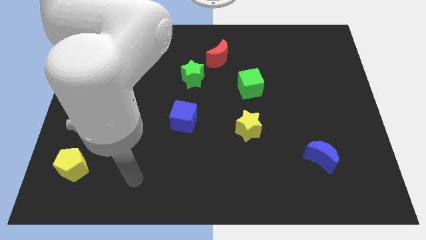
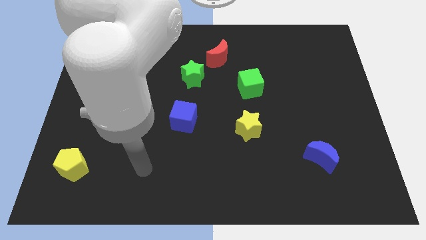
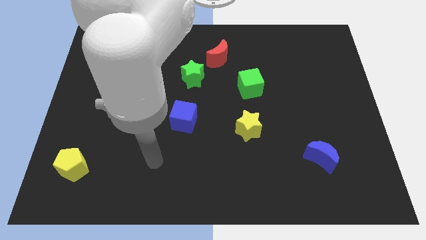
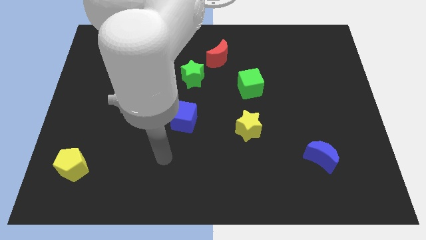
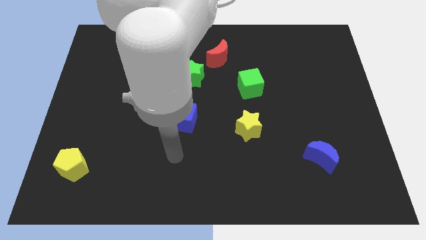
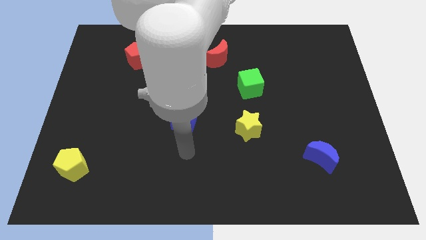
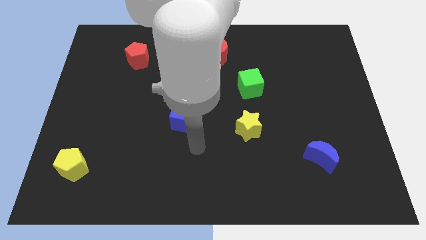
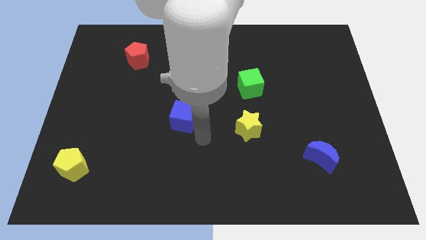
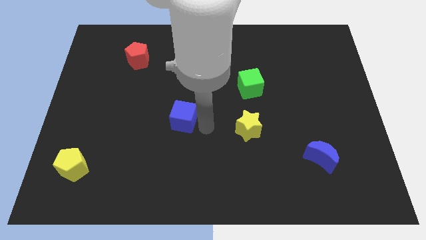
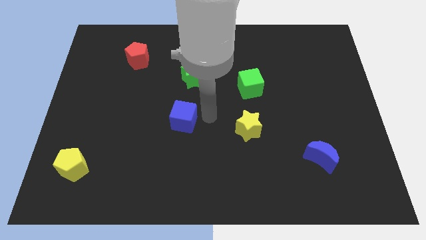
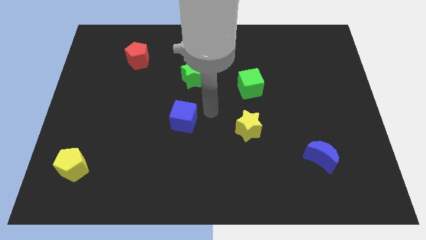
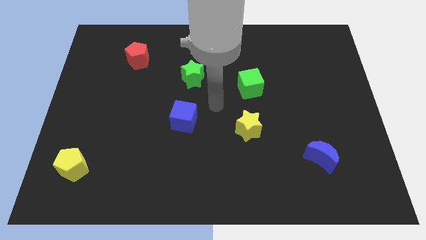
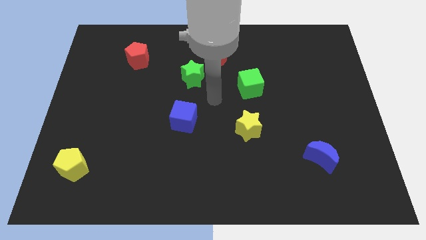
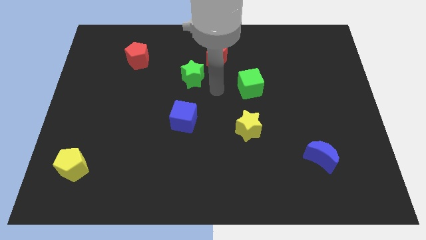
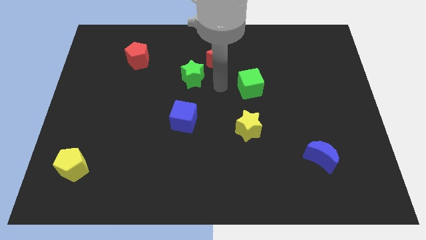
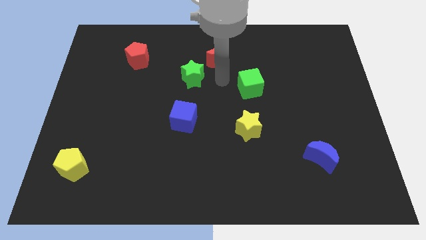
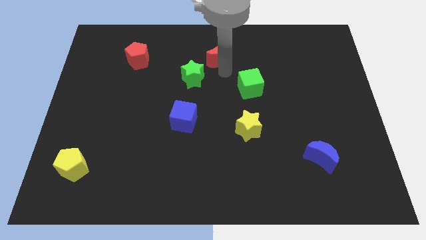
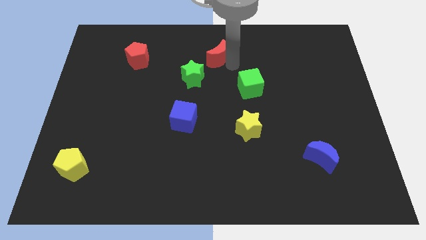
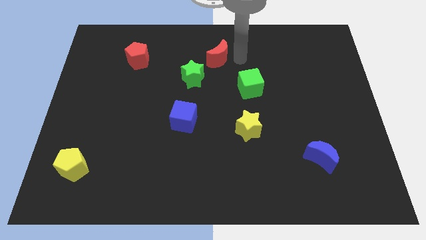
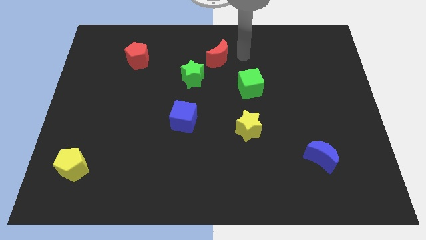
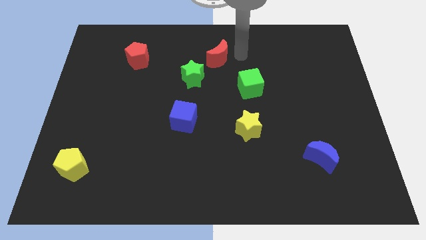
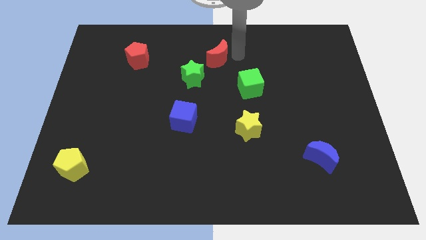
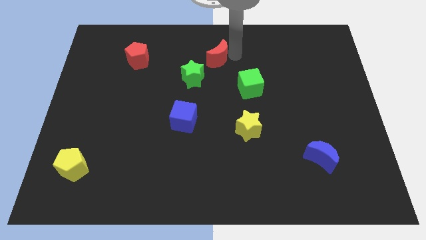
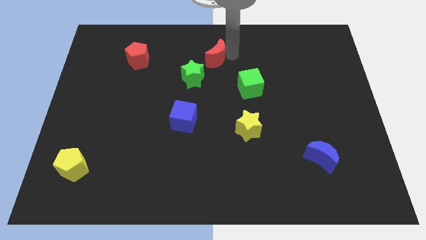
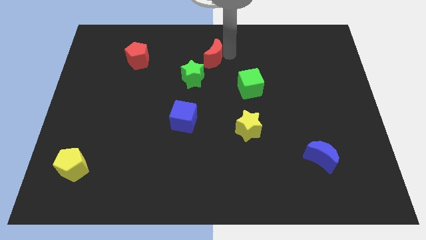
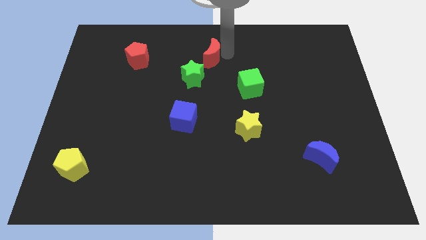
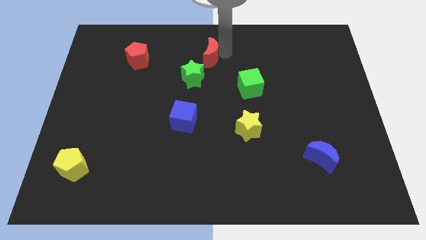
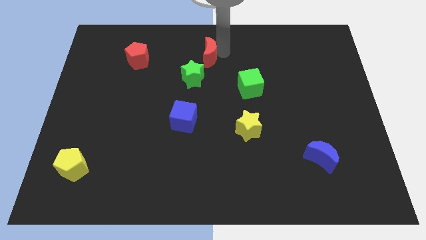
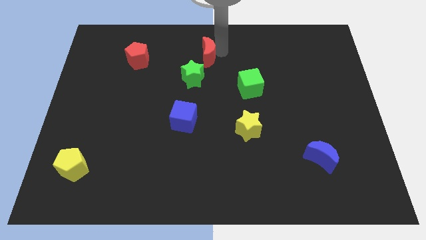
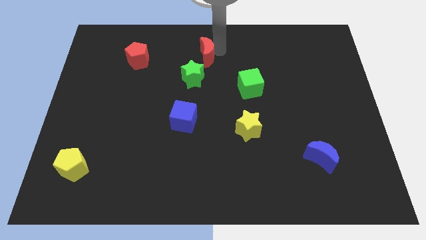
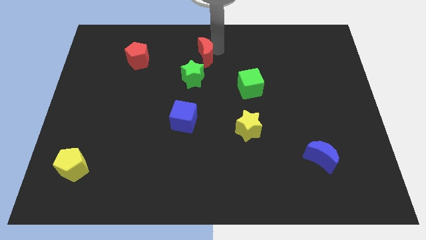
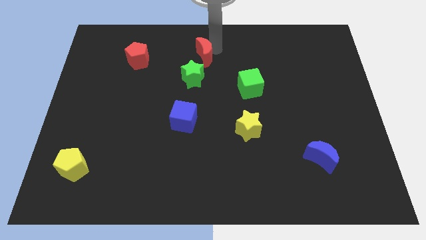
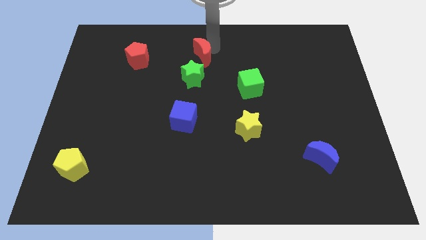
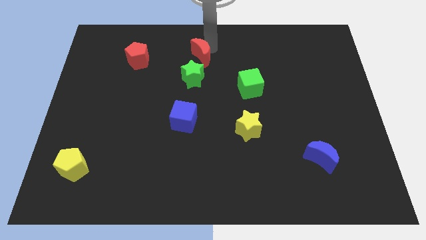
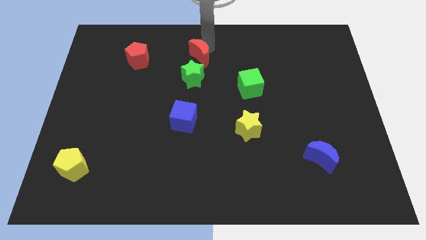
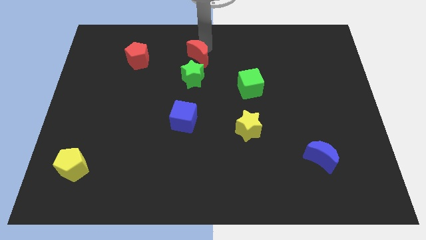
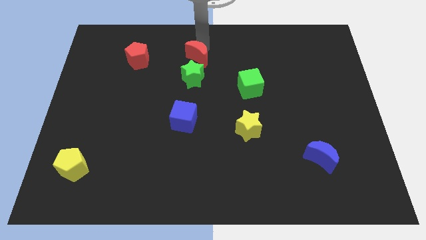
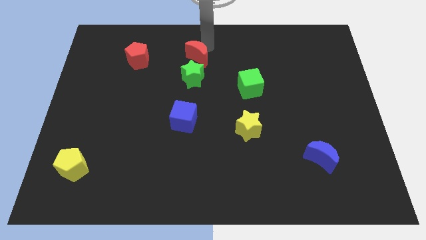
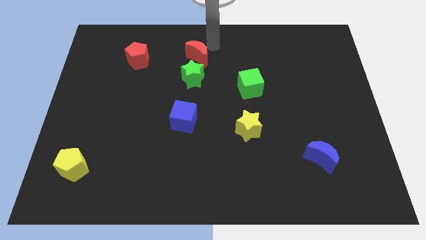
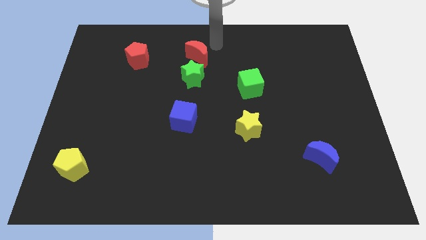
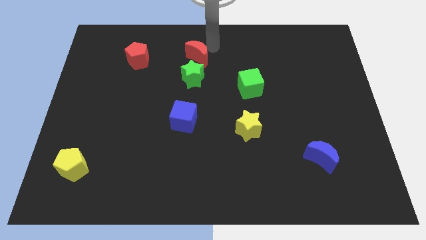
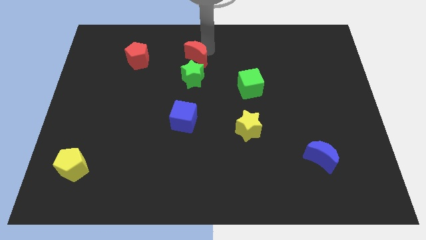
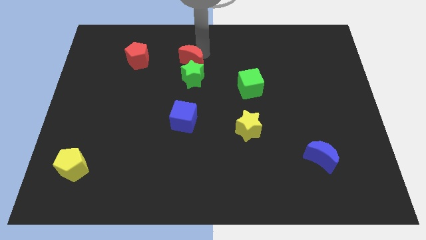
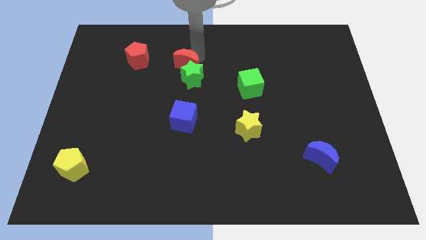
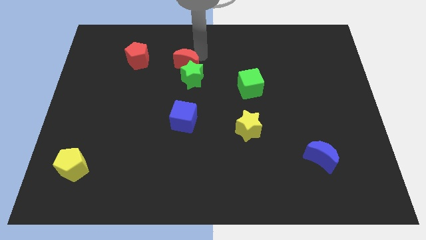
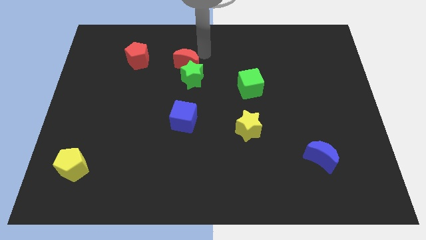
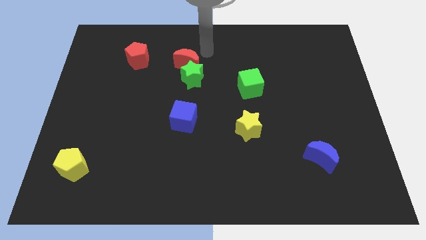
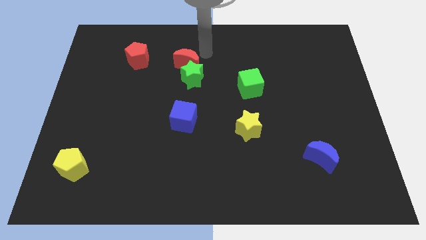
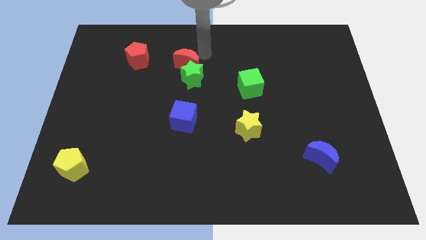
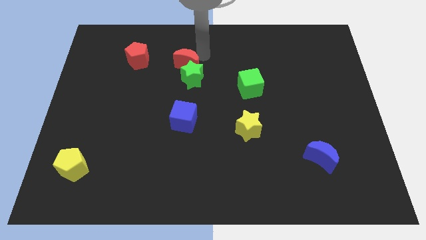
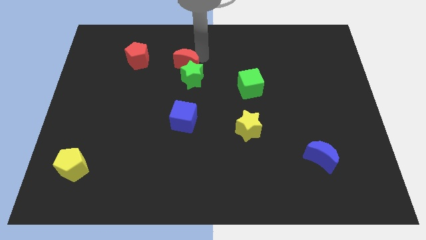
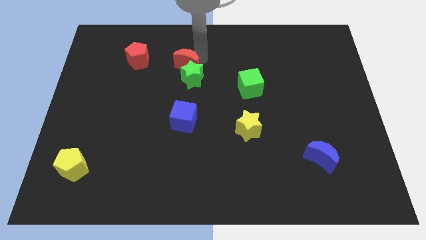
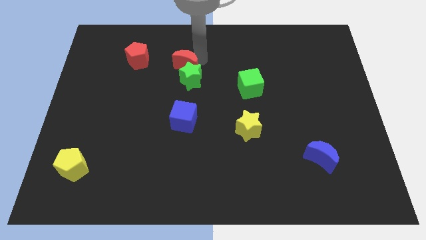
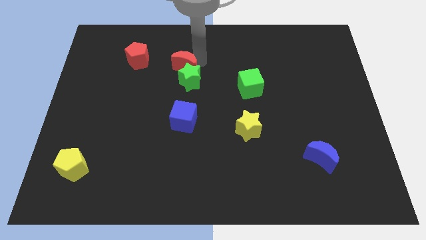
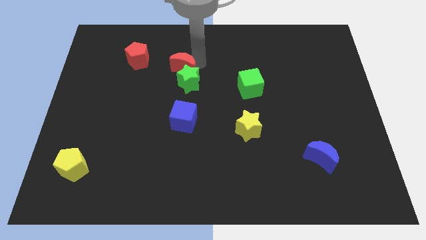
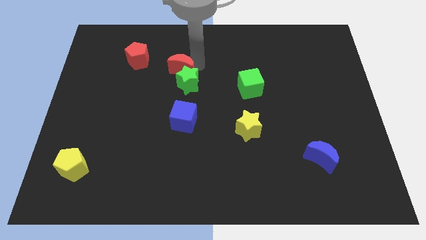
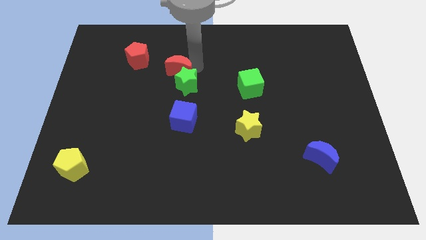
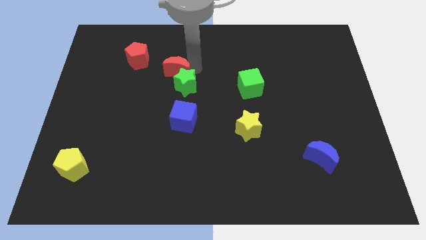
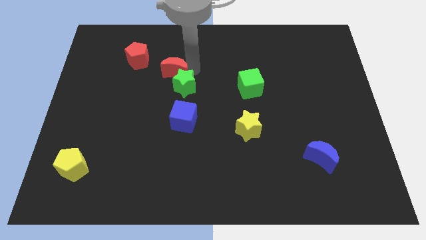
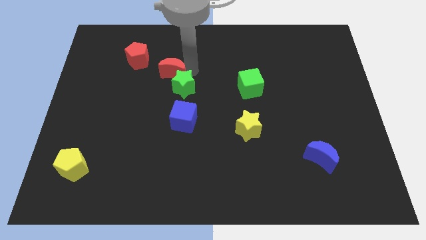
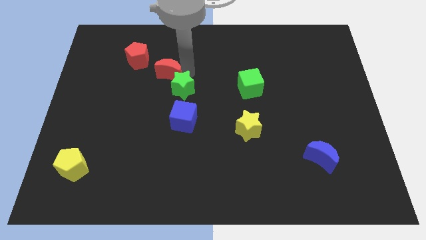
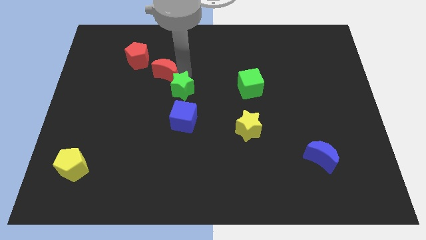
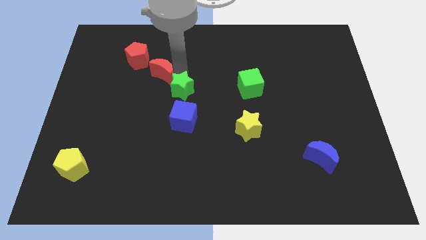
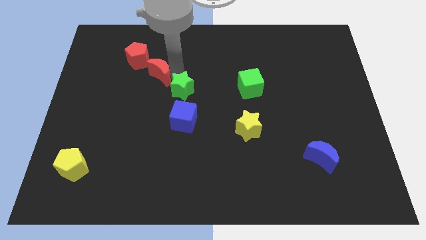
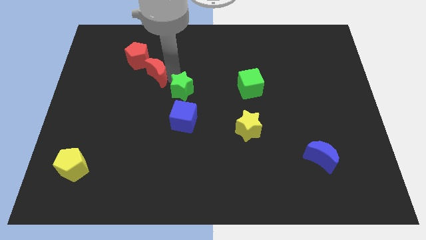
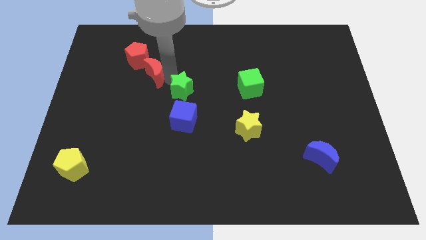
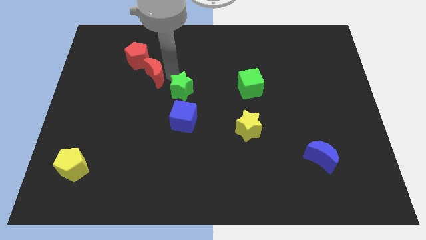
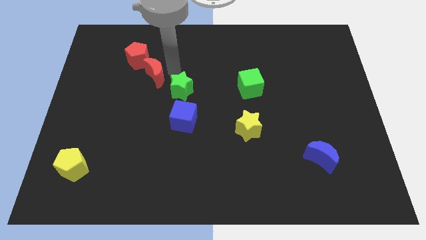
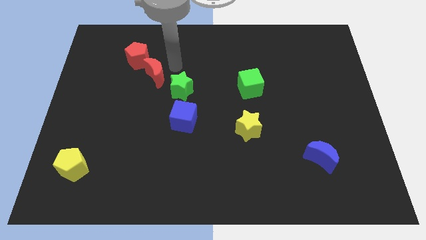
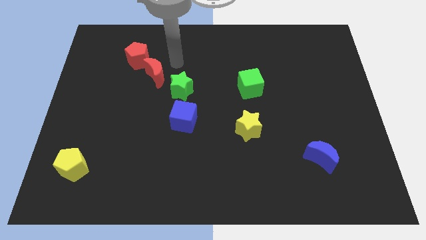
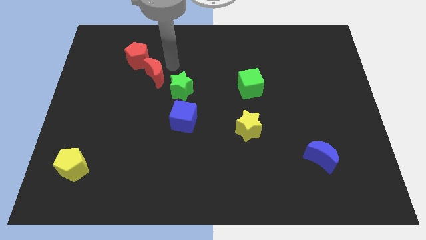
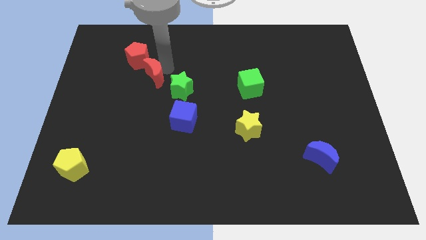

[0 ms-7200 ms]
push the red moon to the bottom of the red pentagon
